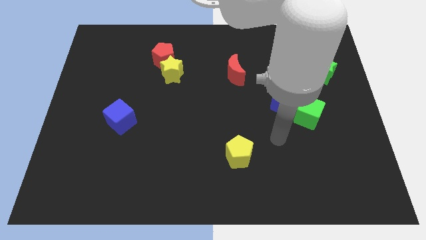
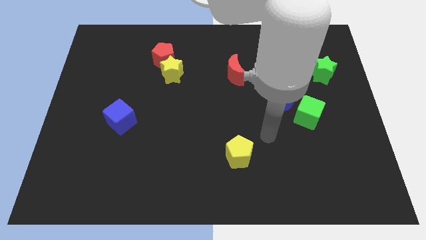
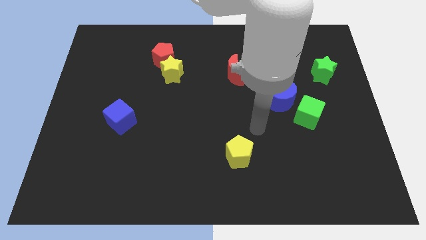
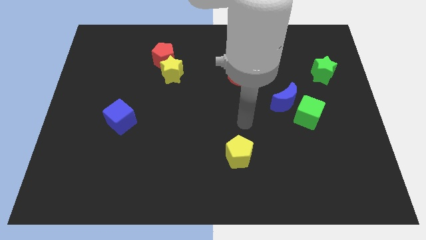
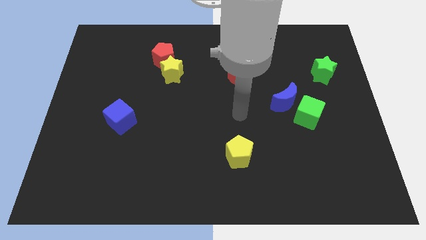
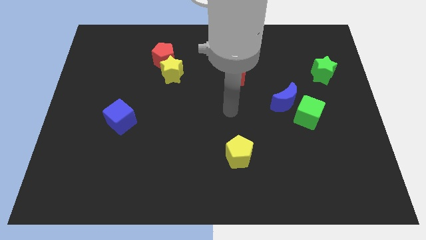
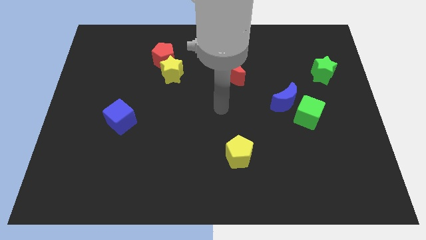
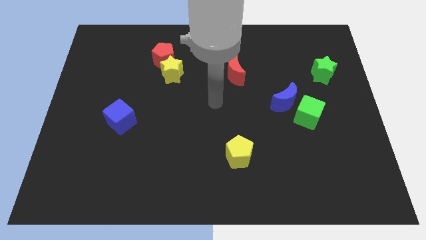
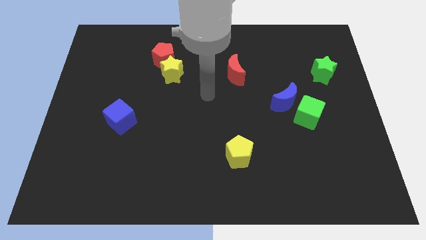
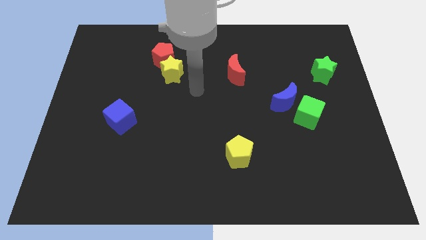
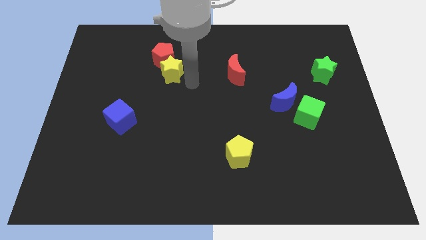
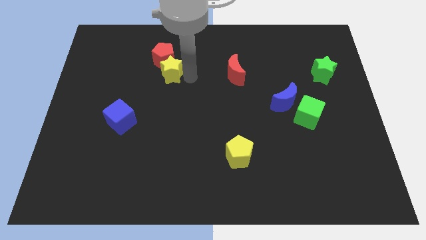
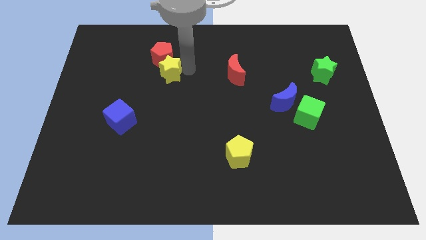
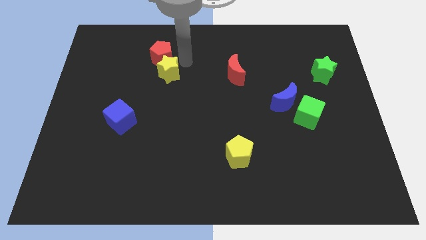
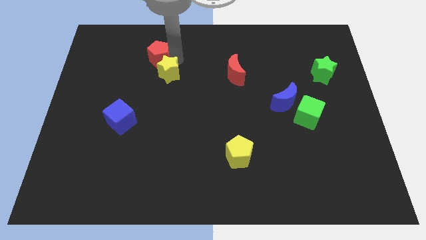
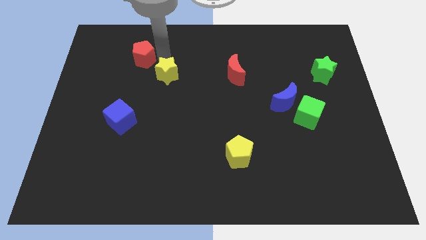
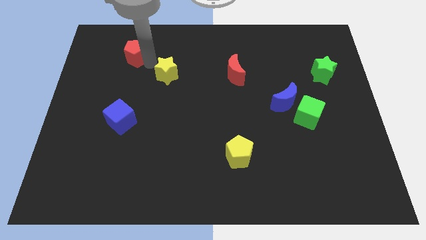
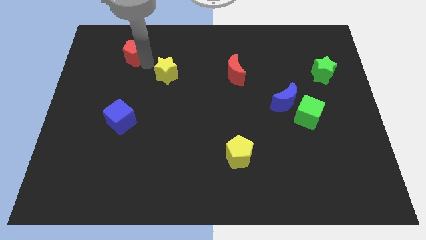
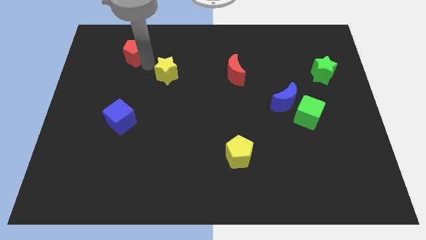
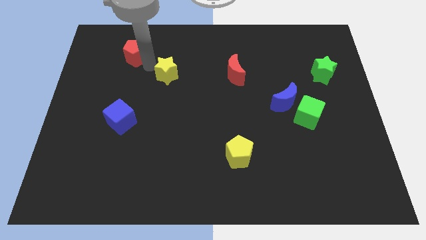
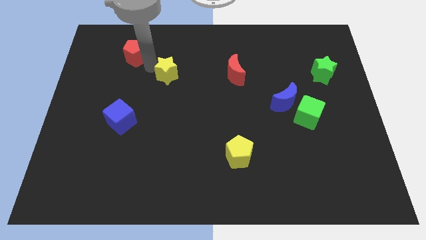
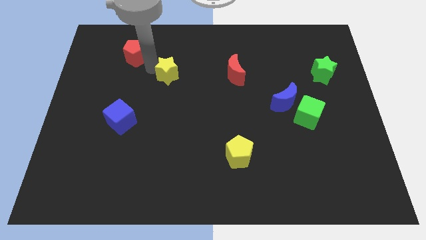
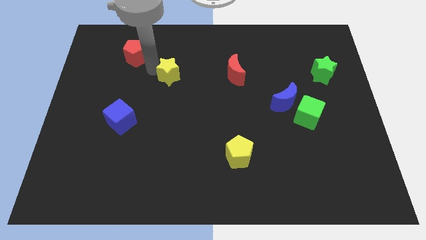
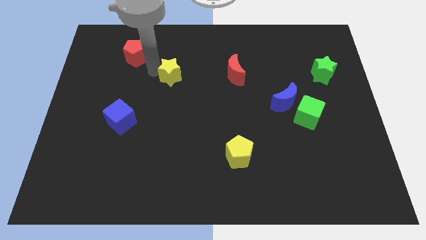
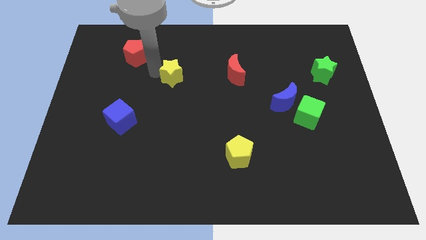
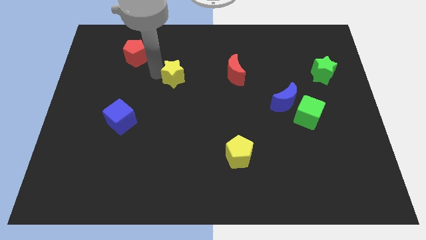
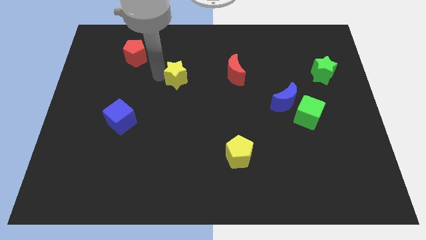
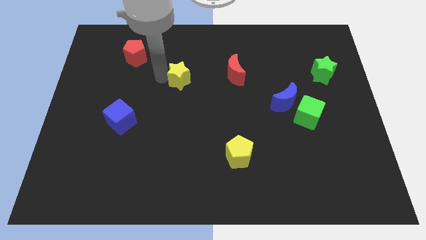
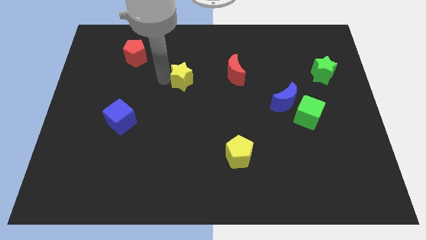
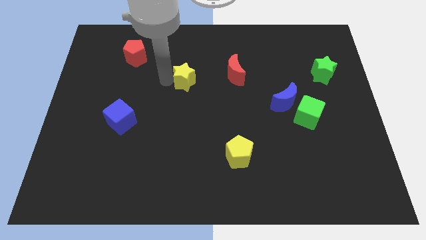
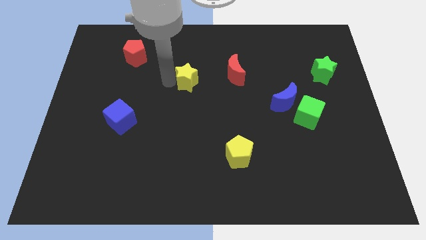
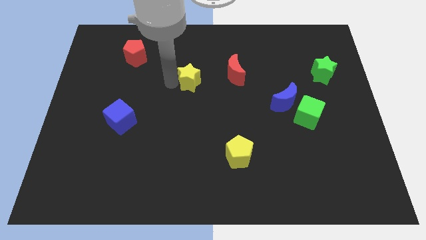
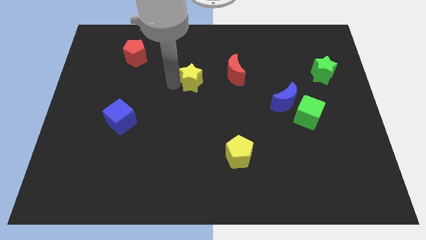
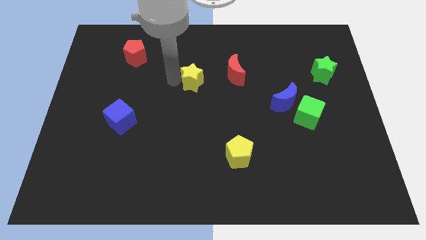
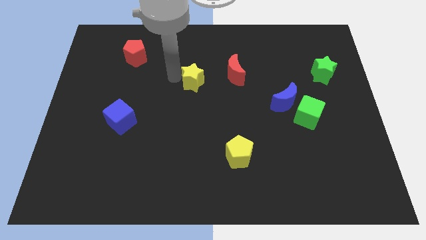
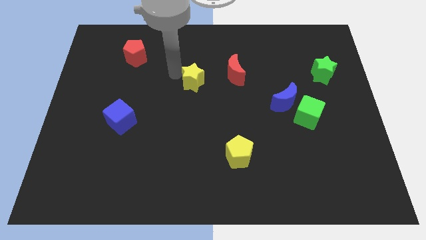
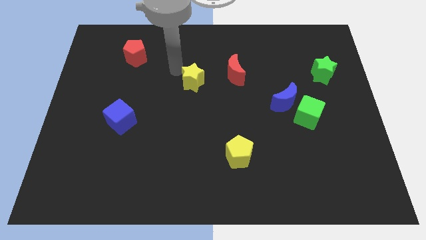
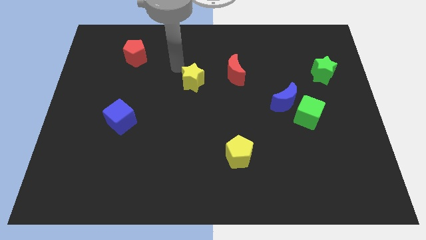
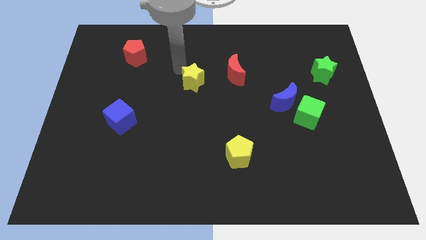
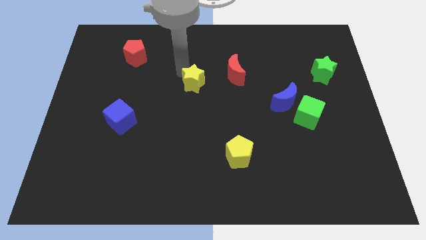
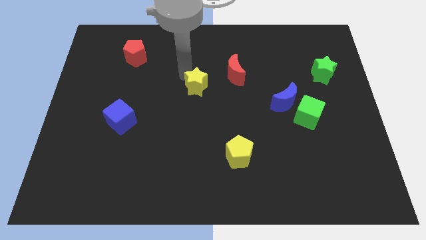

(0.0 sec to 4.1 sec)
slightly slide the yellow star downwards and right

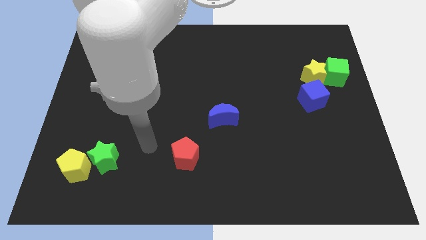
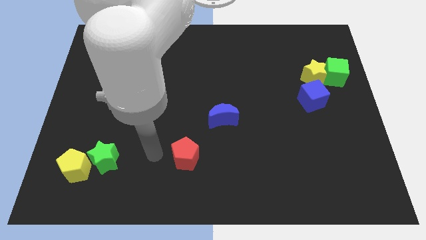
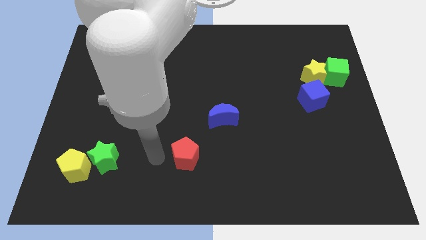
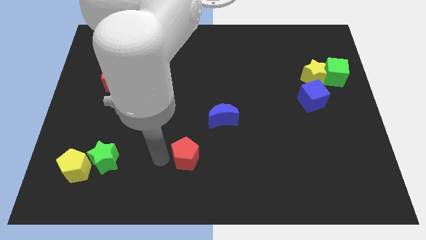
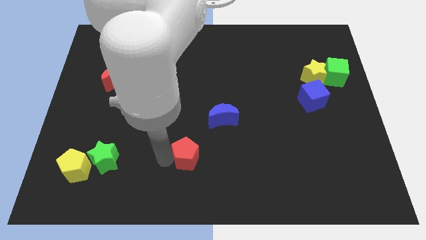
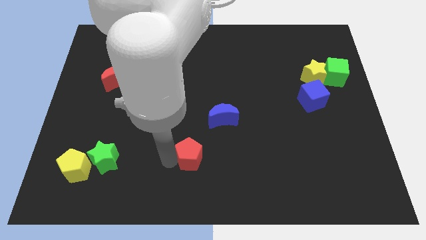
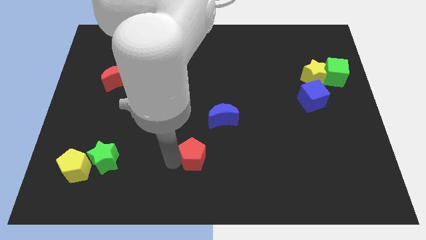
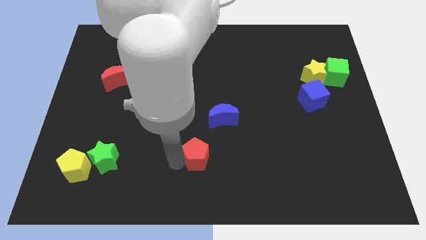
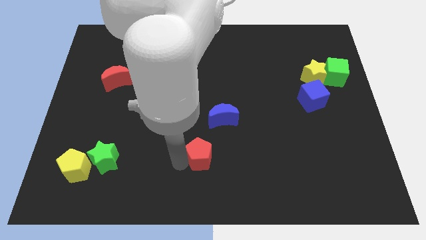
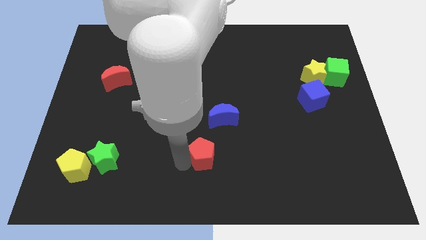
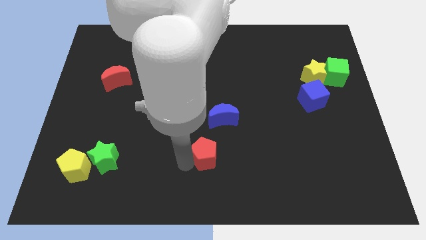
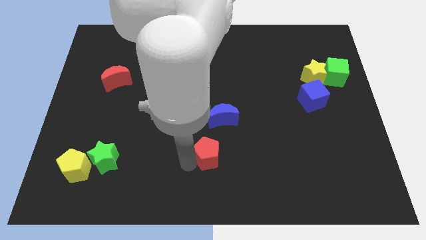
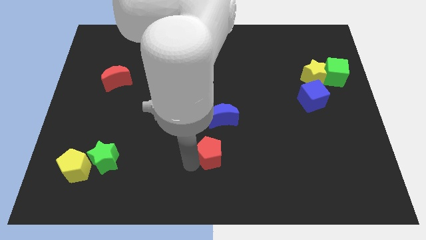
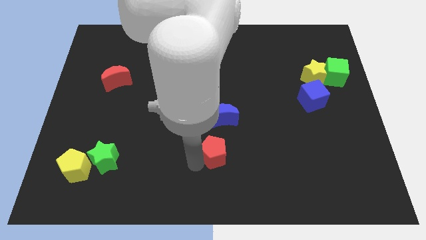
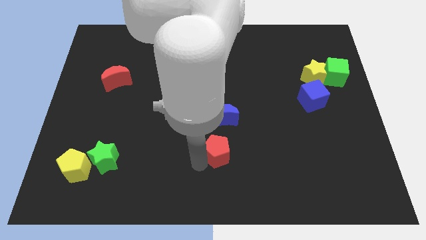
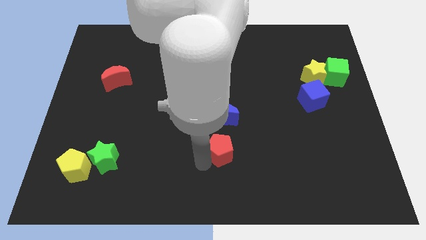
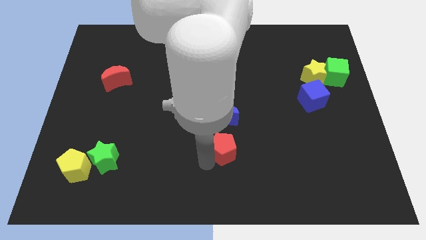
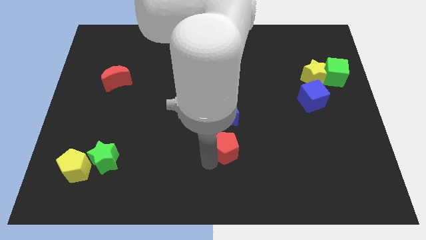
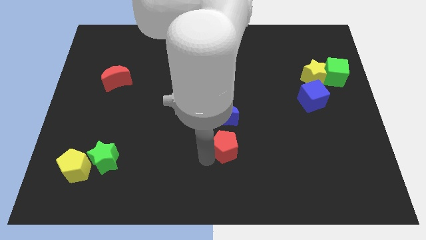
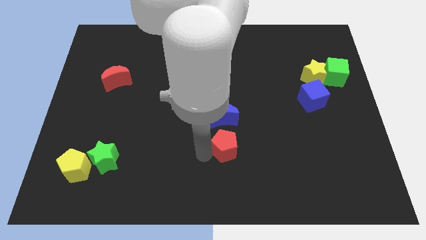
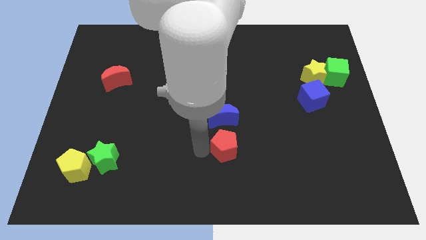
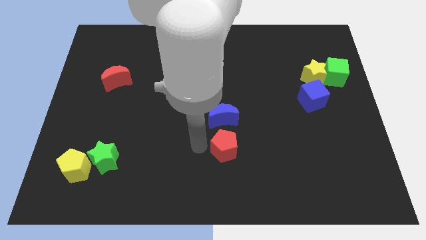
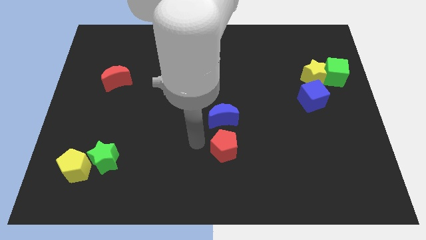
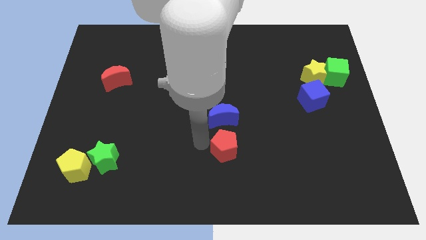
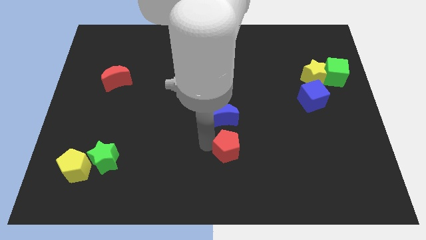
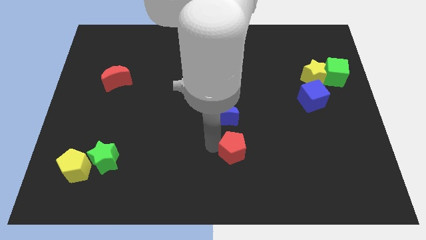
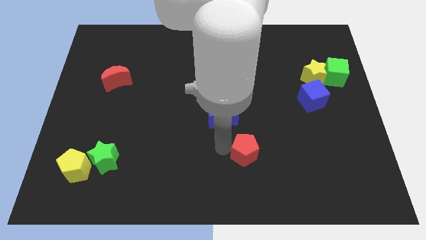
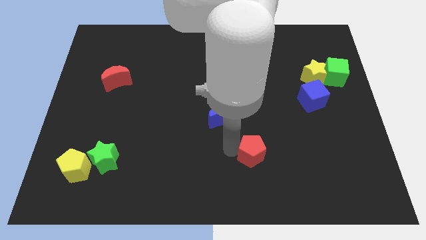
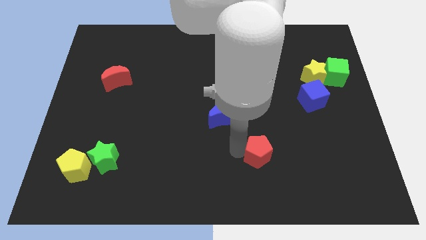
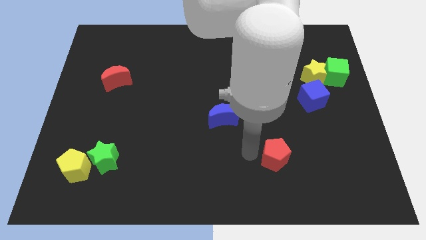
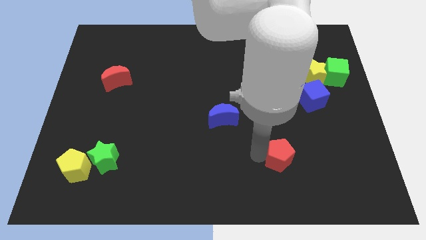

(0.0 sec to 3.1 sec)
push the red pentagon to the right

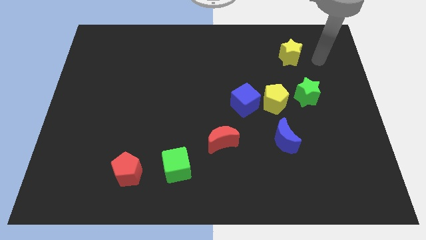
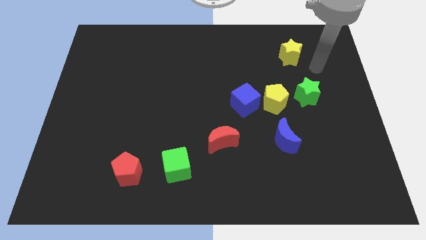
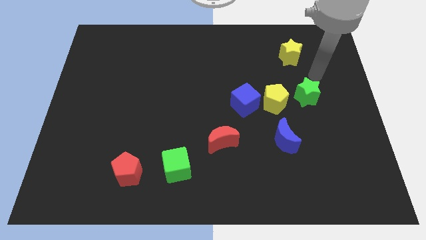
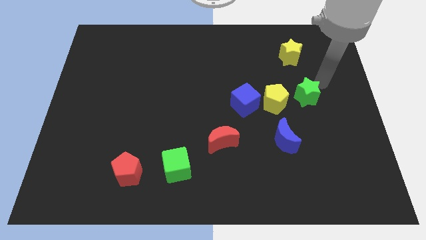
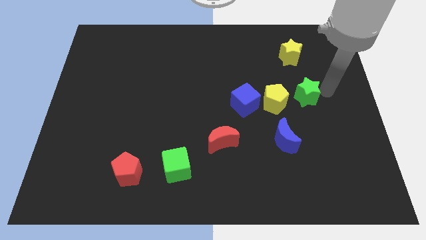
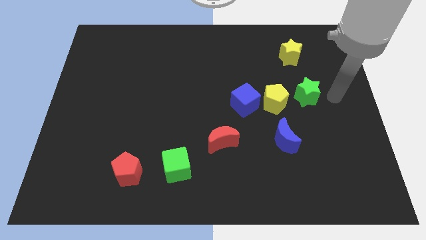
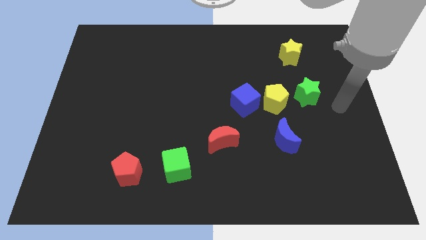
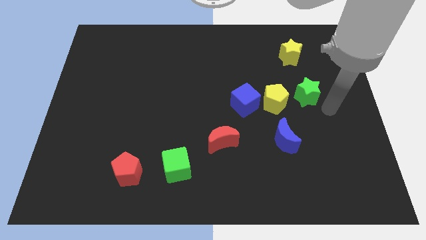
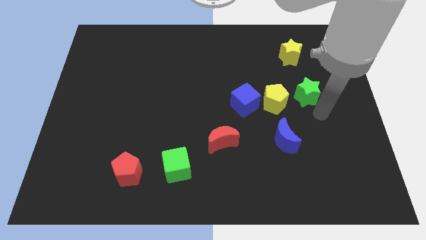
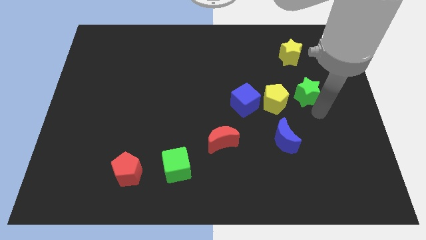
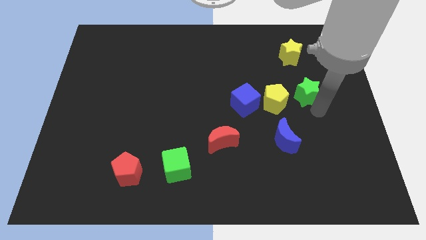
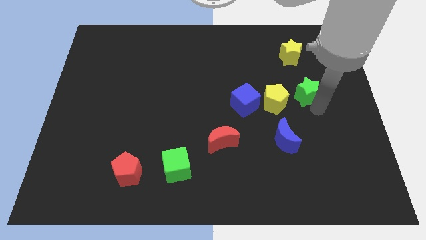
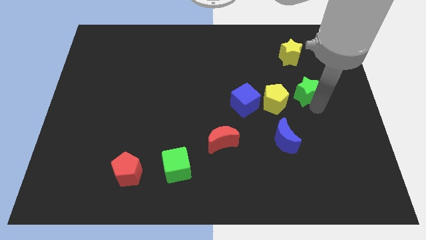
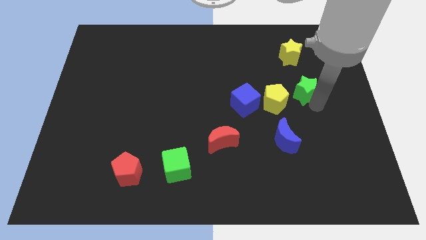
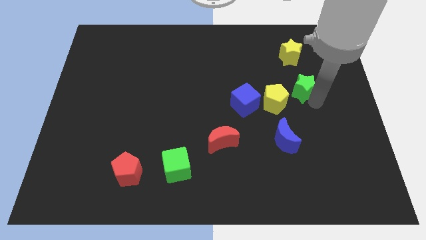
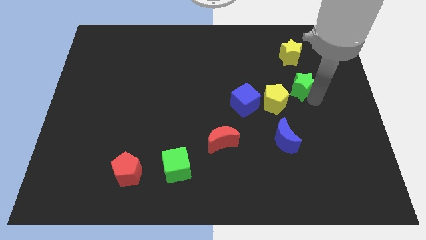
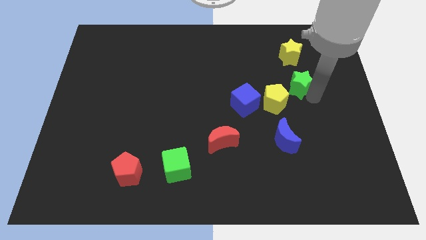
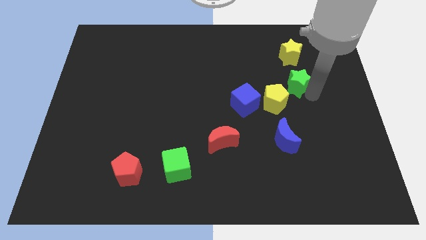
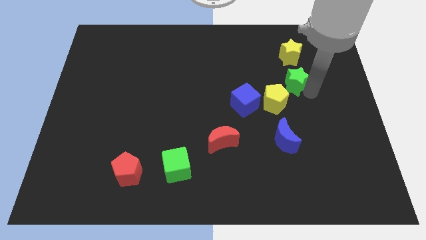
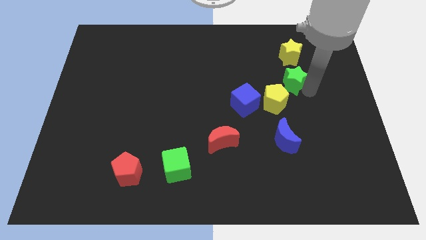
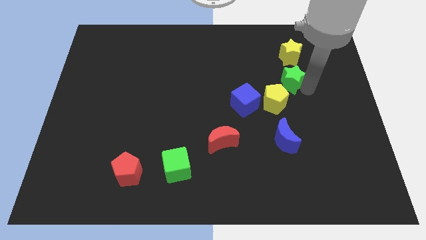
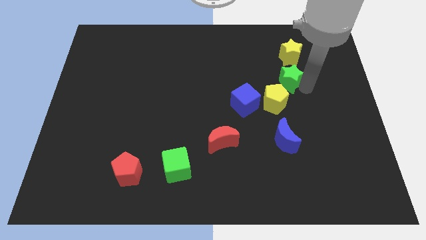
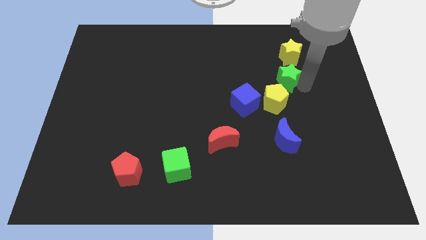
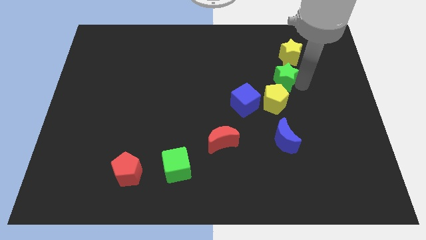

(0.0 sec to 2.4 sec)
move the green star up and to the left a bit
